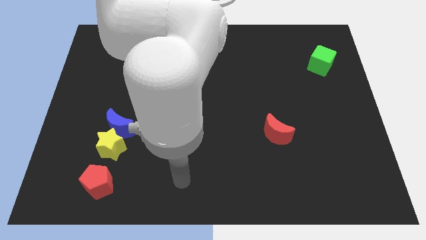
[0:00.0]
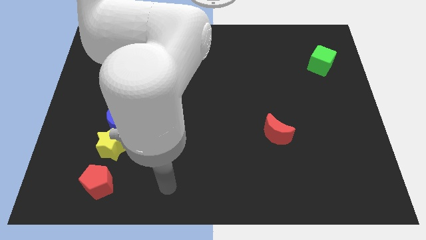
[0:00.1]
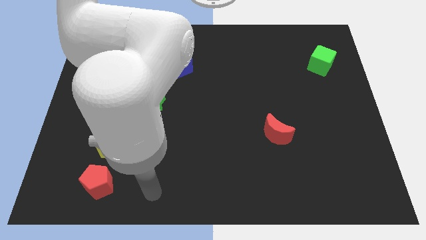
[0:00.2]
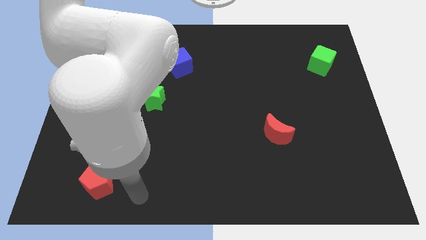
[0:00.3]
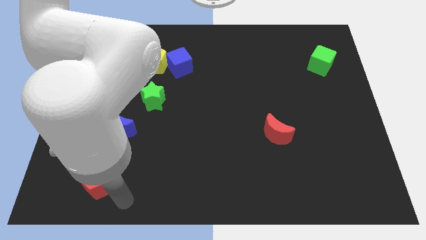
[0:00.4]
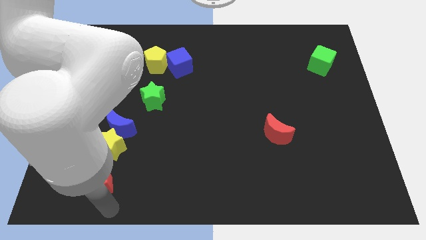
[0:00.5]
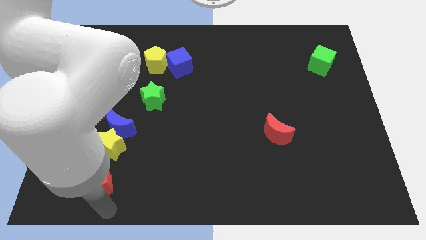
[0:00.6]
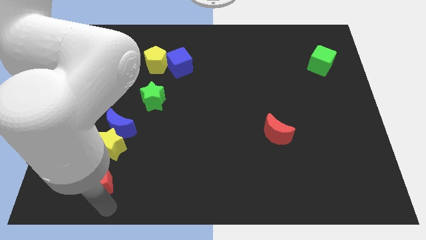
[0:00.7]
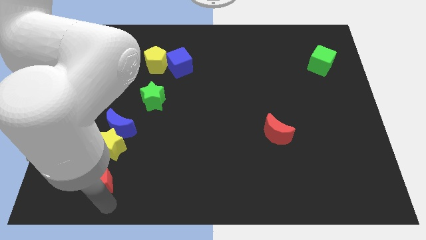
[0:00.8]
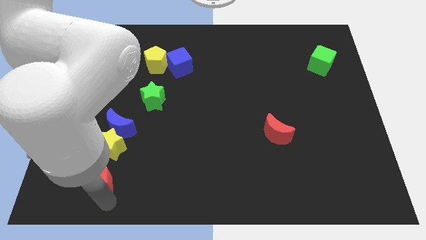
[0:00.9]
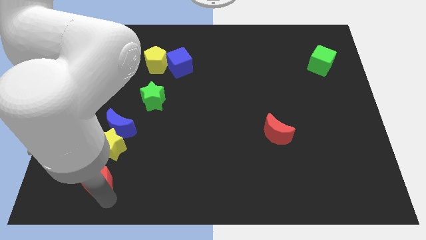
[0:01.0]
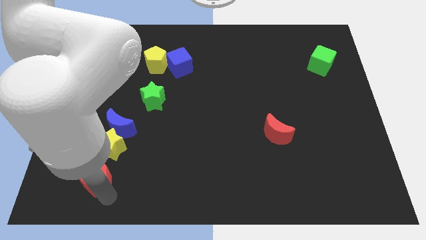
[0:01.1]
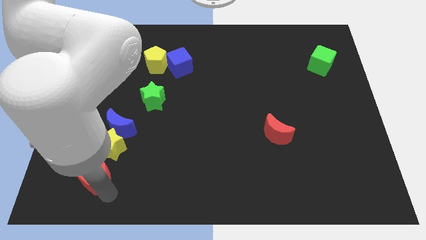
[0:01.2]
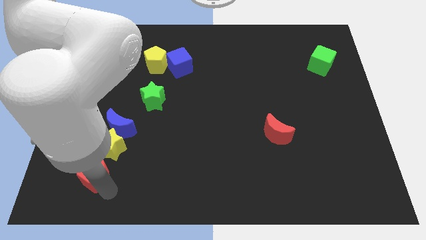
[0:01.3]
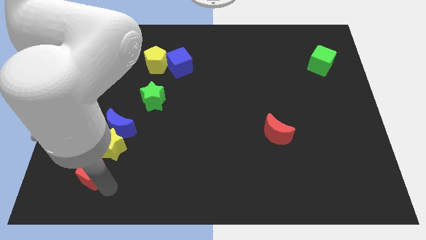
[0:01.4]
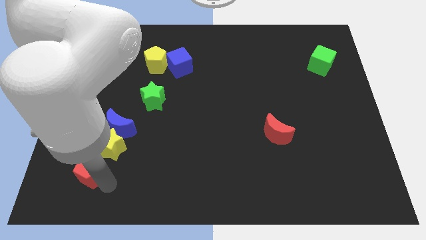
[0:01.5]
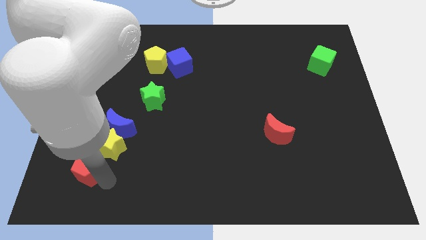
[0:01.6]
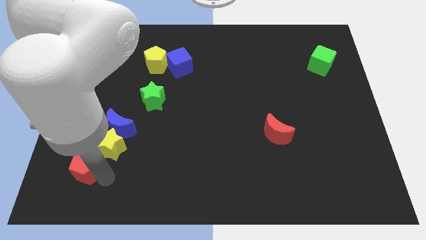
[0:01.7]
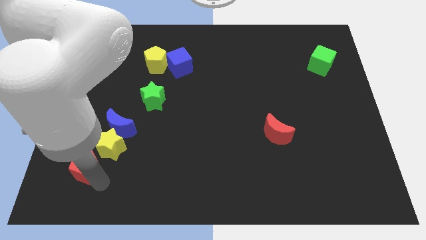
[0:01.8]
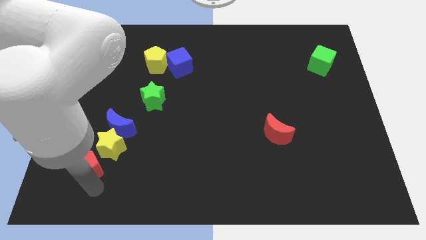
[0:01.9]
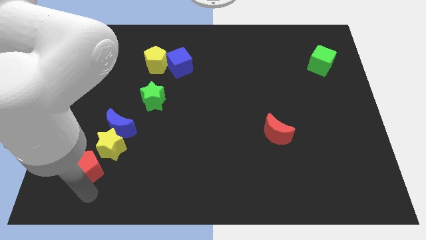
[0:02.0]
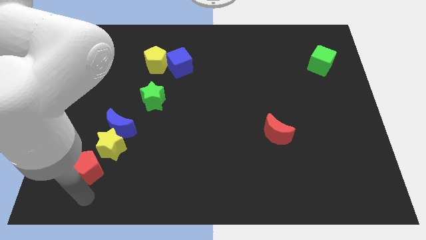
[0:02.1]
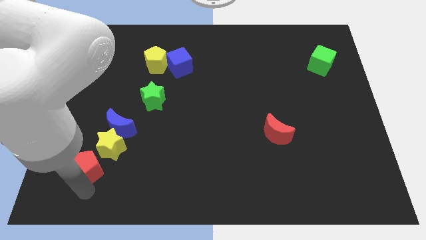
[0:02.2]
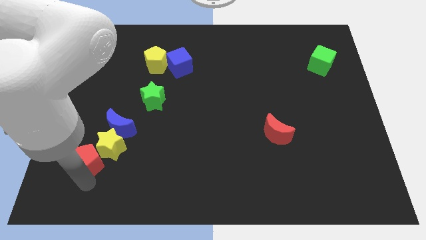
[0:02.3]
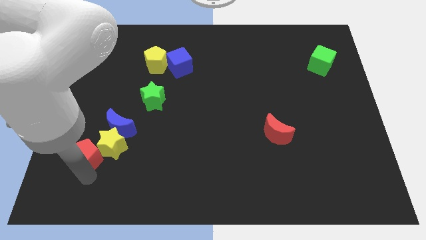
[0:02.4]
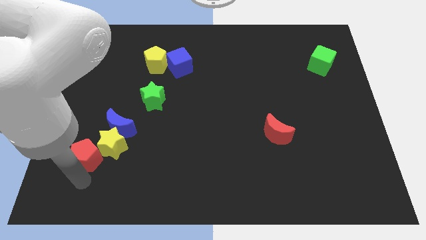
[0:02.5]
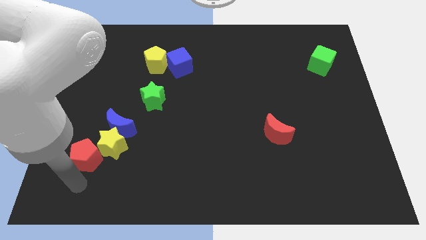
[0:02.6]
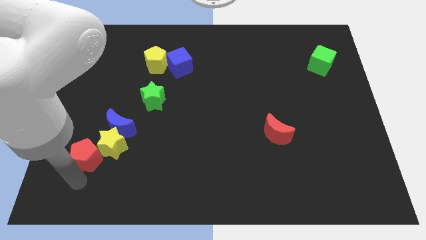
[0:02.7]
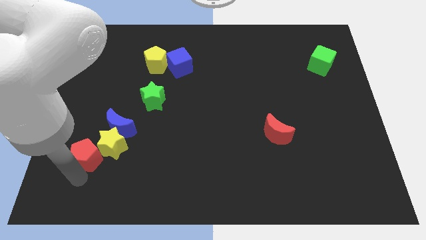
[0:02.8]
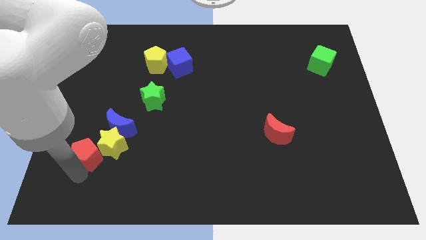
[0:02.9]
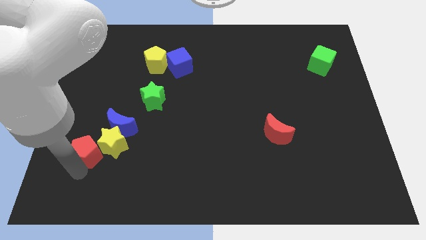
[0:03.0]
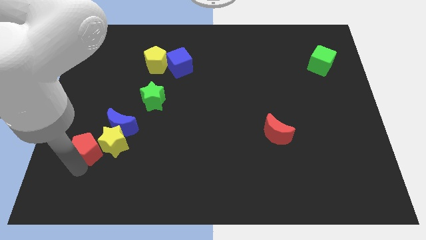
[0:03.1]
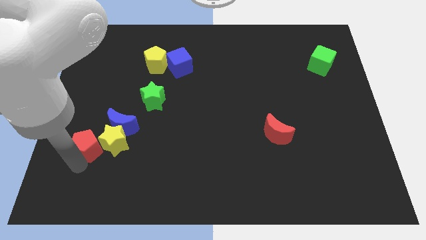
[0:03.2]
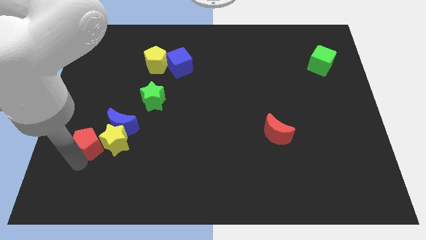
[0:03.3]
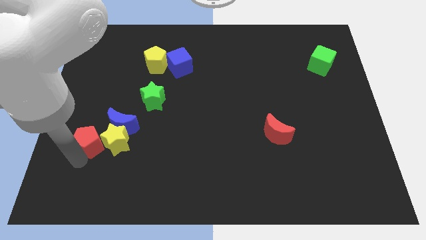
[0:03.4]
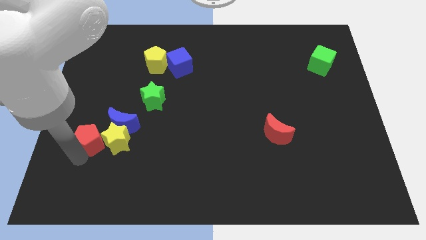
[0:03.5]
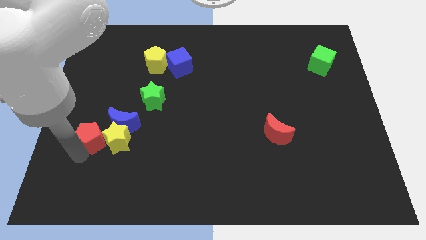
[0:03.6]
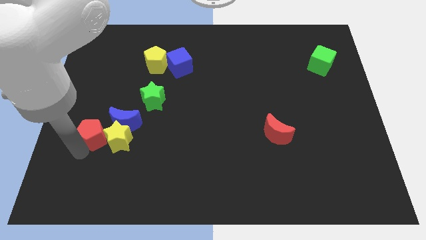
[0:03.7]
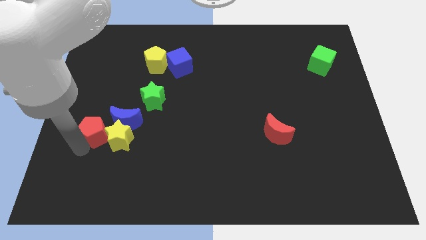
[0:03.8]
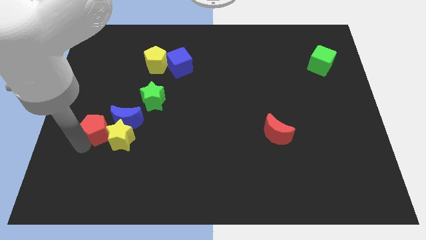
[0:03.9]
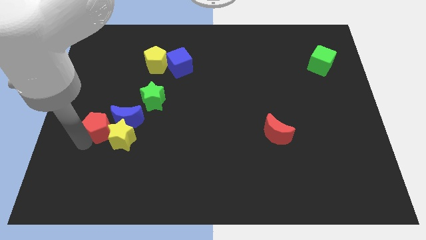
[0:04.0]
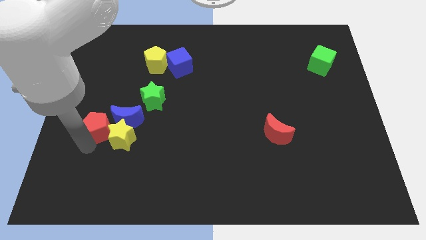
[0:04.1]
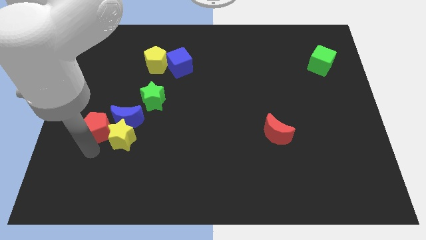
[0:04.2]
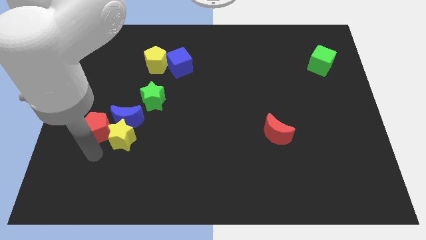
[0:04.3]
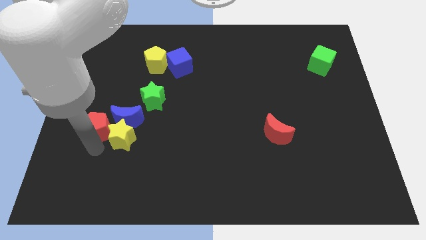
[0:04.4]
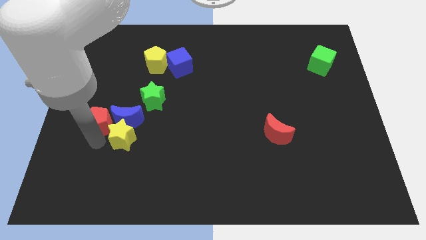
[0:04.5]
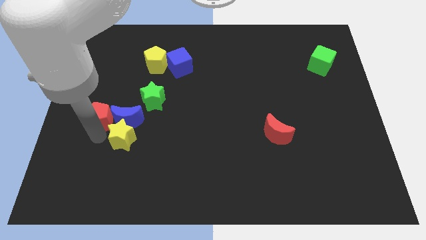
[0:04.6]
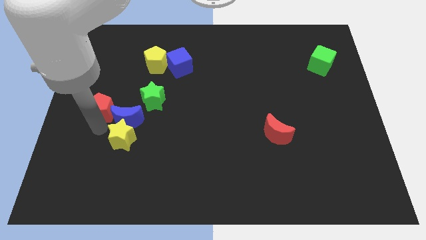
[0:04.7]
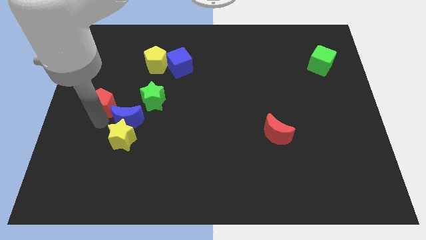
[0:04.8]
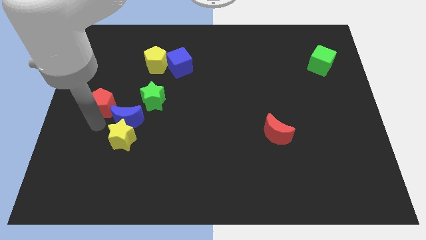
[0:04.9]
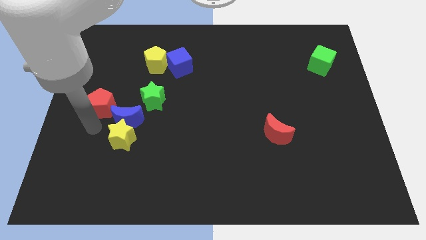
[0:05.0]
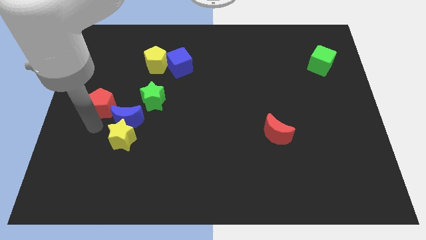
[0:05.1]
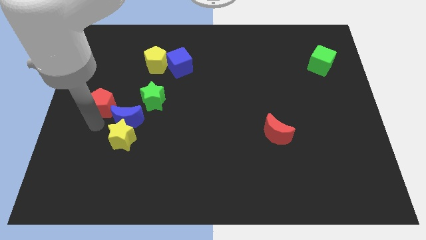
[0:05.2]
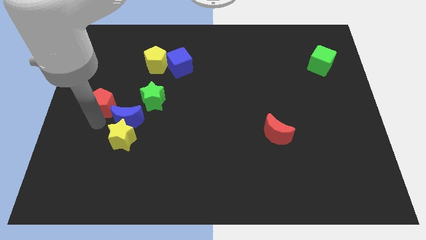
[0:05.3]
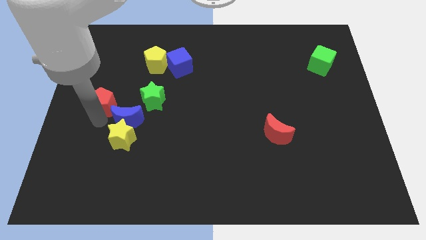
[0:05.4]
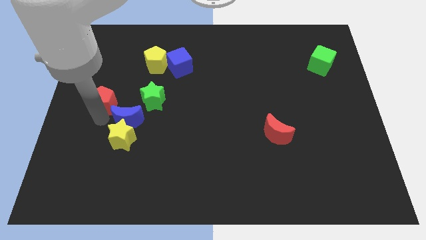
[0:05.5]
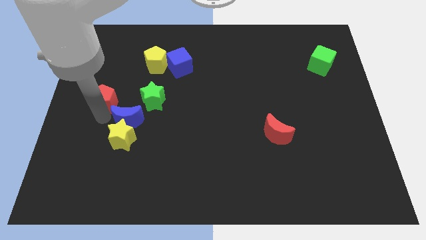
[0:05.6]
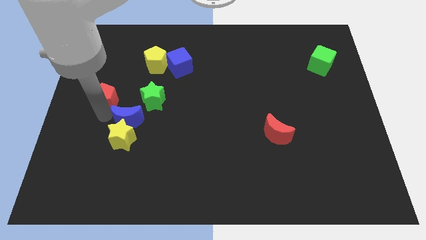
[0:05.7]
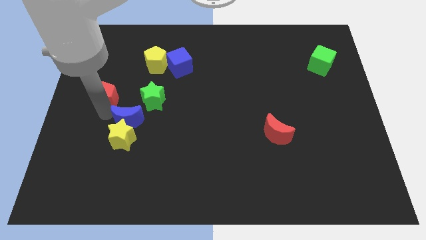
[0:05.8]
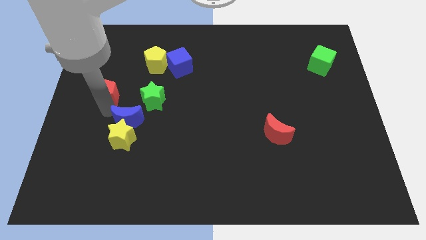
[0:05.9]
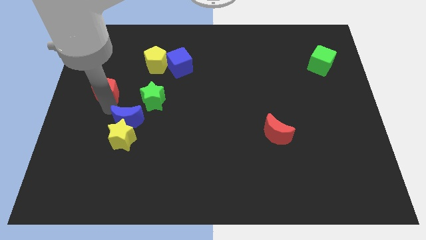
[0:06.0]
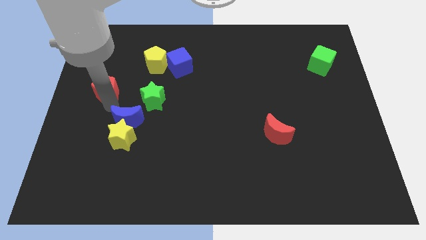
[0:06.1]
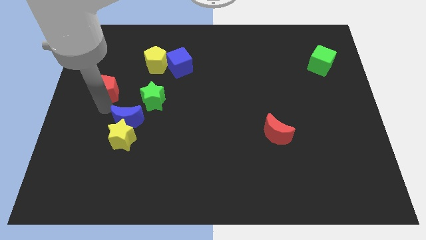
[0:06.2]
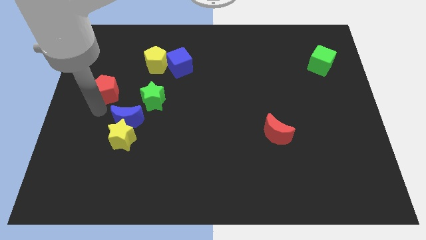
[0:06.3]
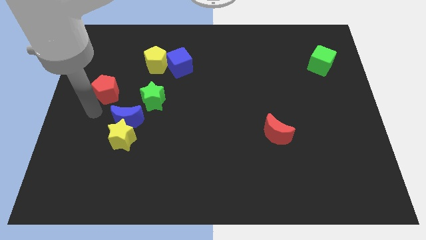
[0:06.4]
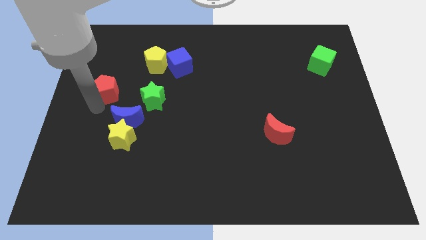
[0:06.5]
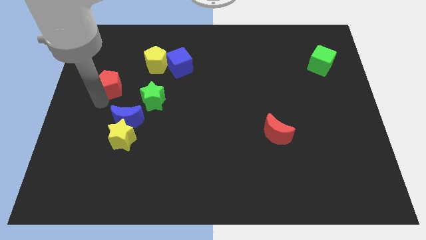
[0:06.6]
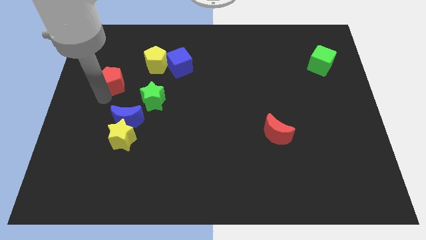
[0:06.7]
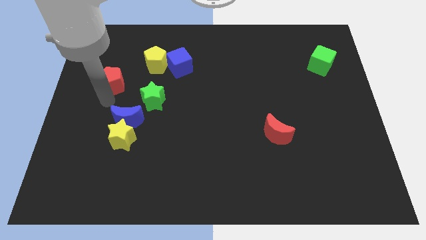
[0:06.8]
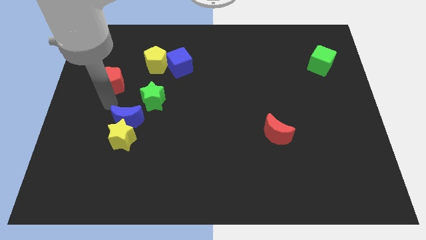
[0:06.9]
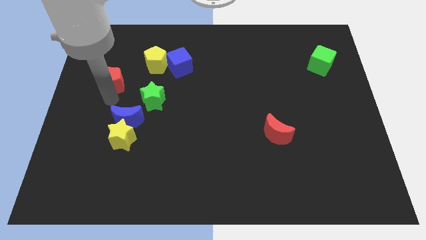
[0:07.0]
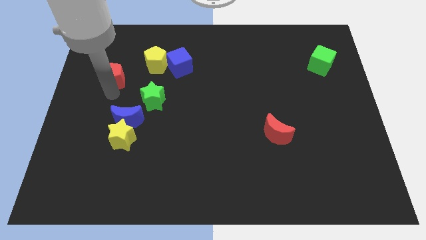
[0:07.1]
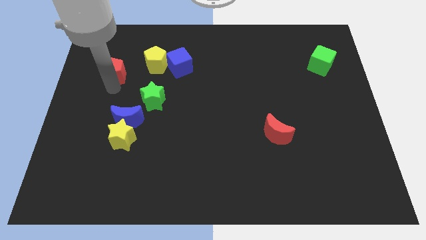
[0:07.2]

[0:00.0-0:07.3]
move the red pentagon just left of the yellow pentagon
